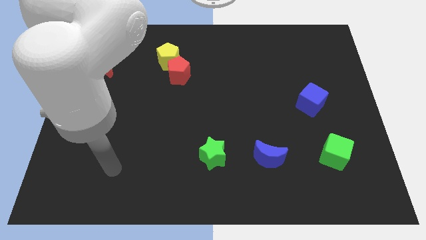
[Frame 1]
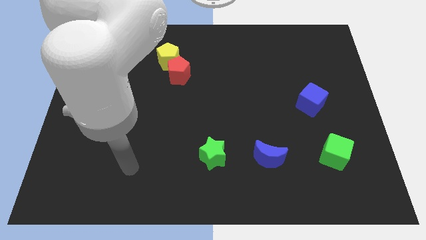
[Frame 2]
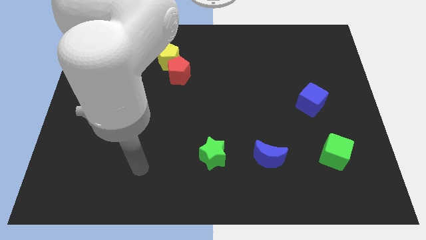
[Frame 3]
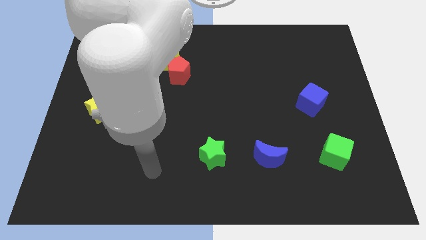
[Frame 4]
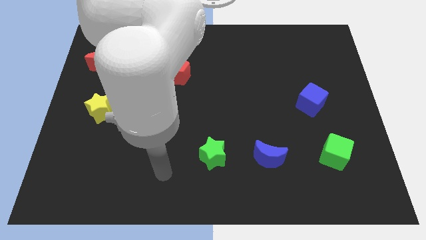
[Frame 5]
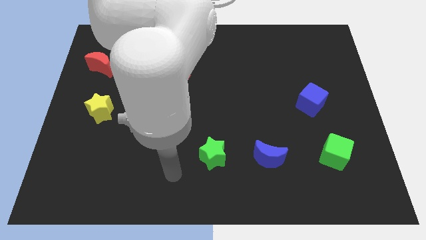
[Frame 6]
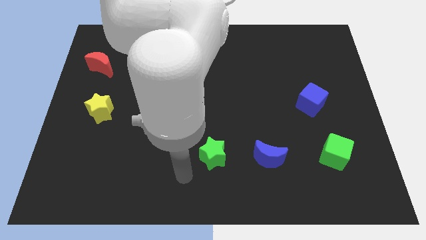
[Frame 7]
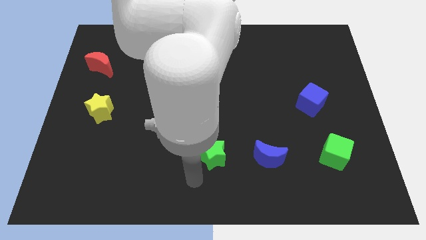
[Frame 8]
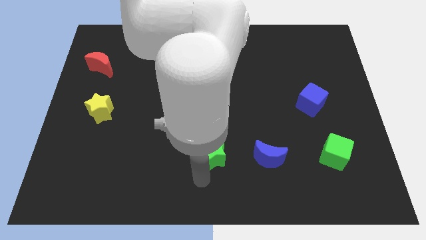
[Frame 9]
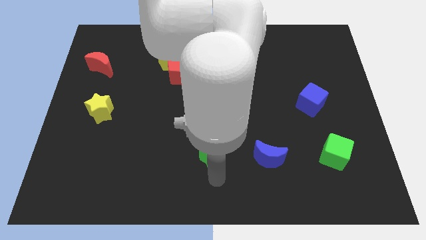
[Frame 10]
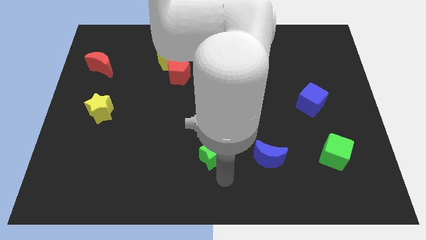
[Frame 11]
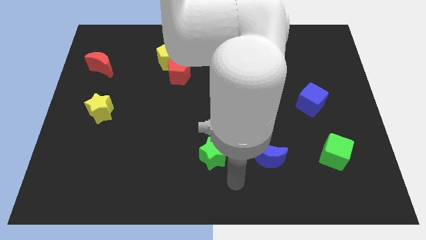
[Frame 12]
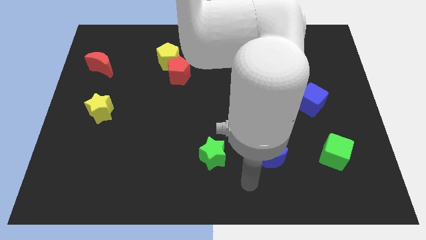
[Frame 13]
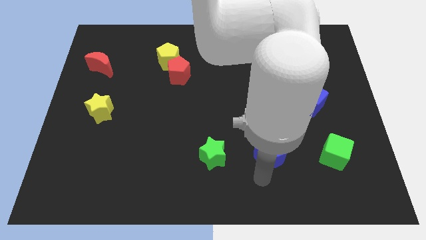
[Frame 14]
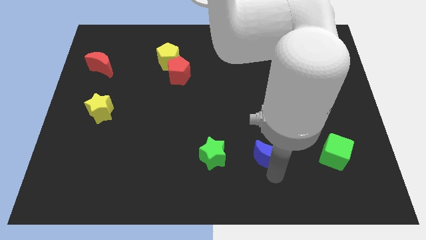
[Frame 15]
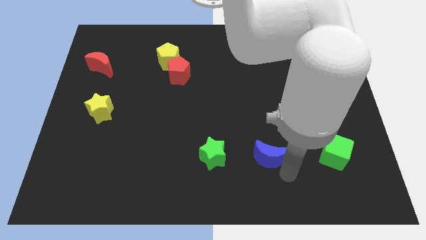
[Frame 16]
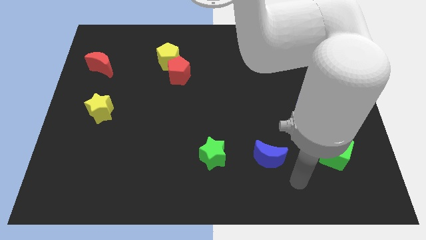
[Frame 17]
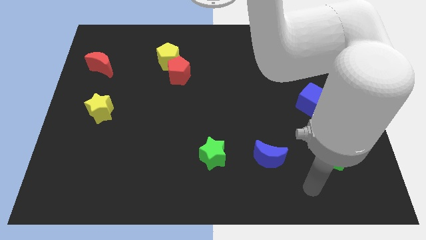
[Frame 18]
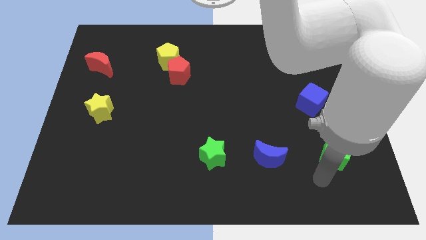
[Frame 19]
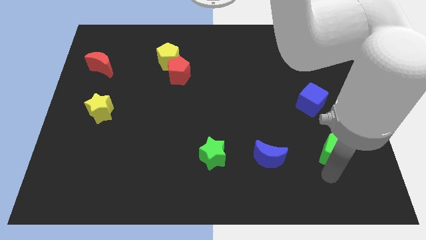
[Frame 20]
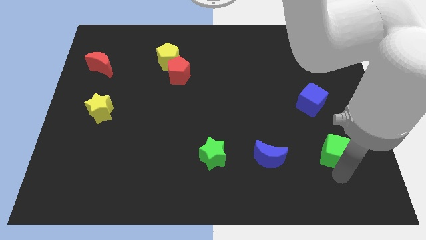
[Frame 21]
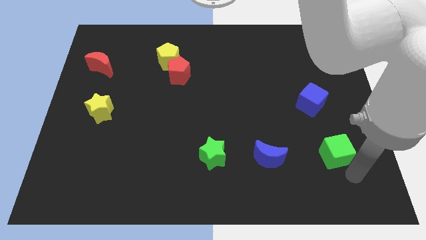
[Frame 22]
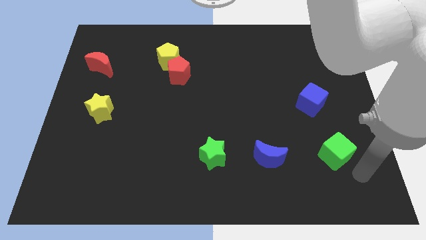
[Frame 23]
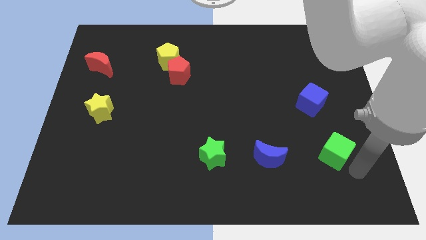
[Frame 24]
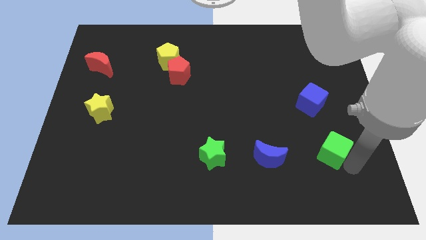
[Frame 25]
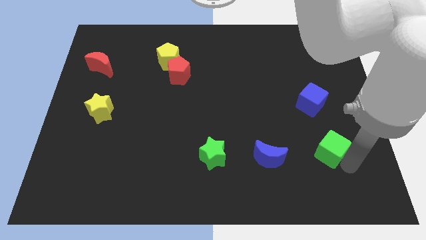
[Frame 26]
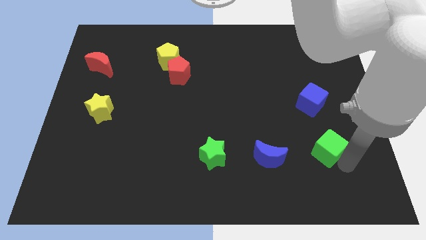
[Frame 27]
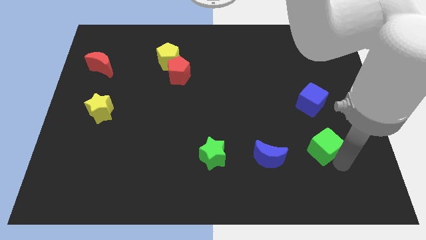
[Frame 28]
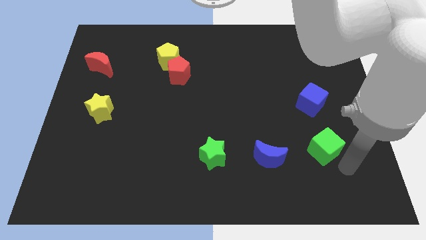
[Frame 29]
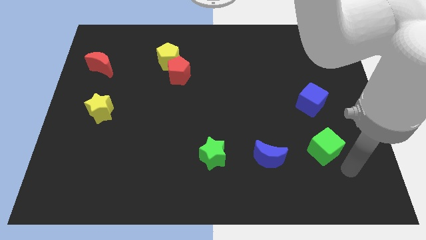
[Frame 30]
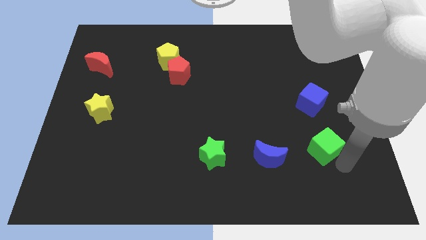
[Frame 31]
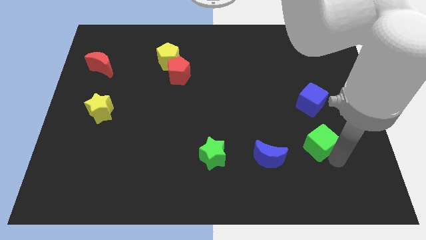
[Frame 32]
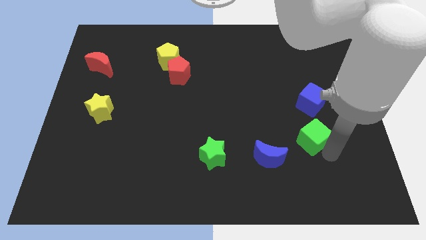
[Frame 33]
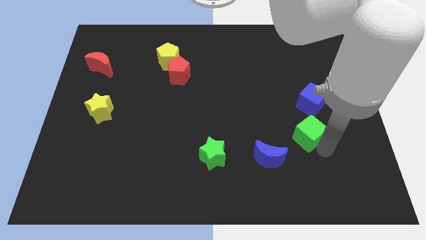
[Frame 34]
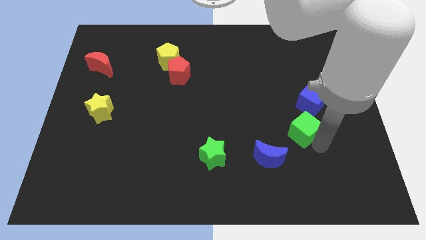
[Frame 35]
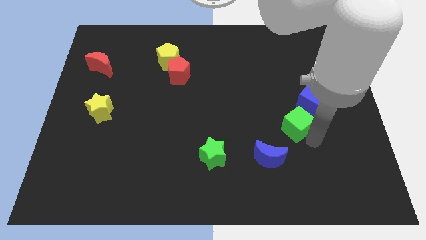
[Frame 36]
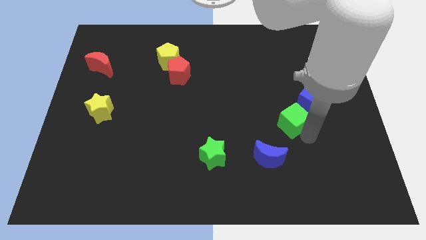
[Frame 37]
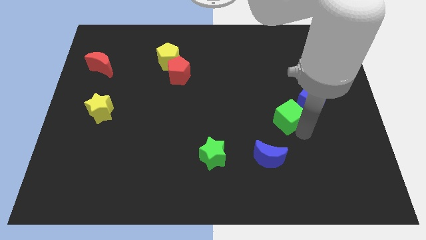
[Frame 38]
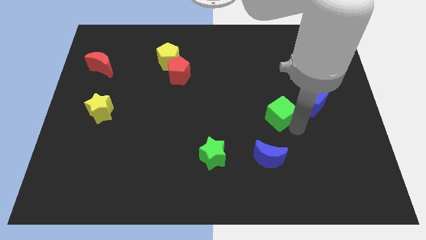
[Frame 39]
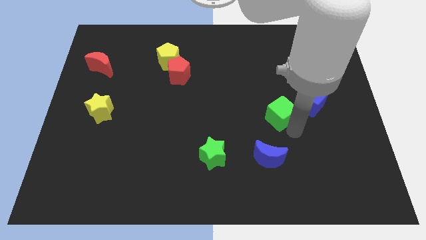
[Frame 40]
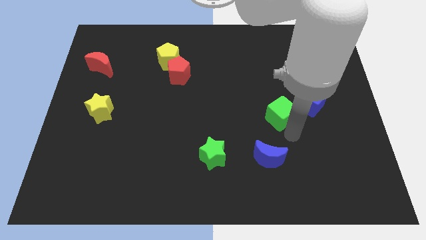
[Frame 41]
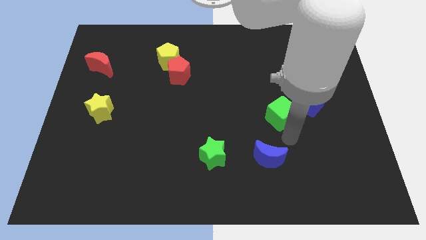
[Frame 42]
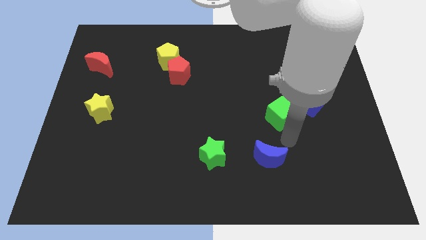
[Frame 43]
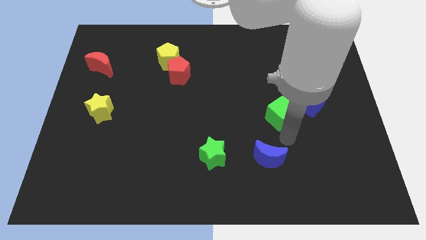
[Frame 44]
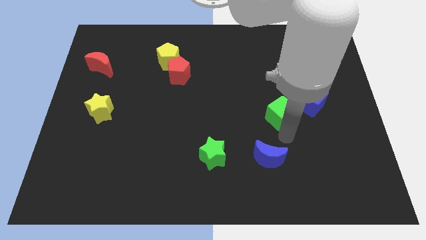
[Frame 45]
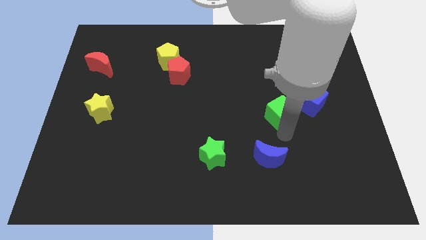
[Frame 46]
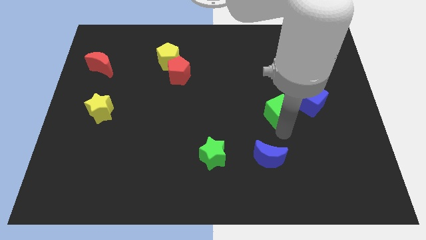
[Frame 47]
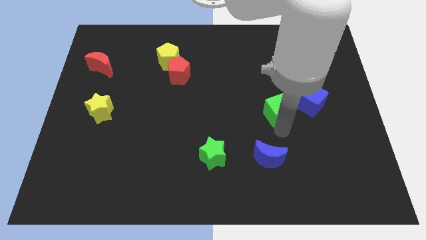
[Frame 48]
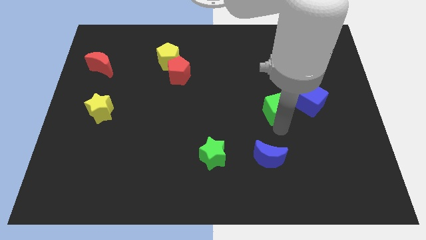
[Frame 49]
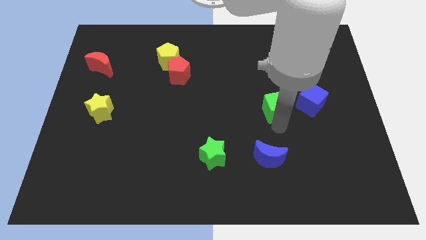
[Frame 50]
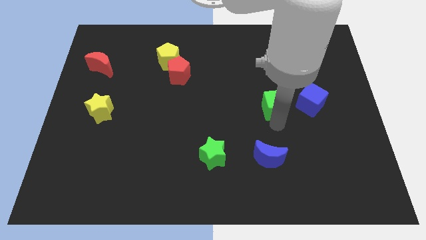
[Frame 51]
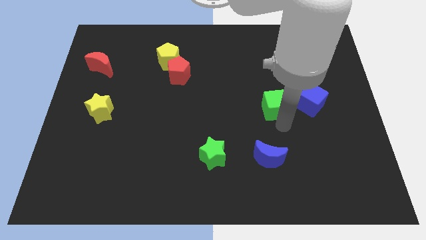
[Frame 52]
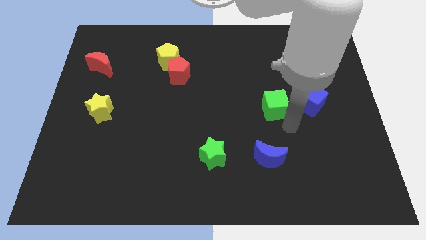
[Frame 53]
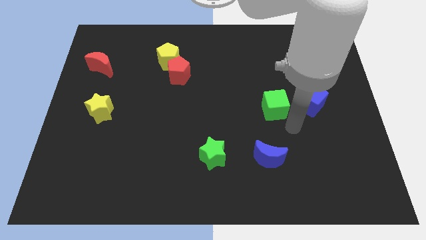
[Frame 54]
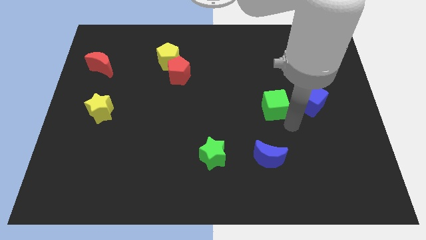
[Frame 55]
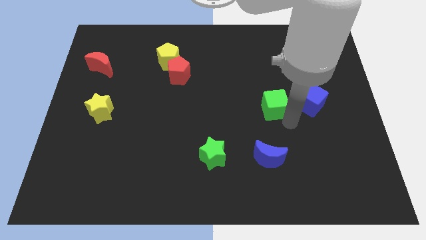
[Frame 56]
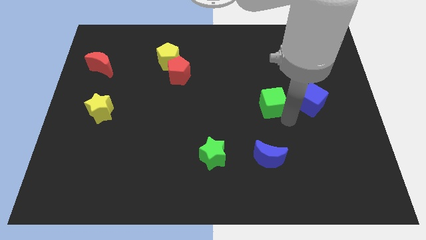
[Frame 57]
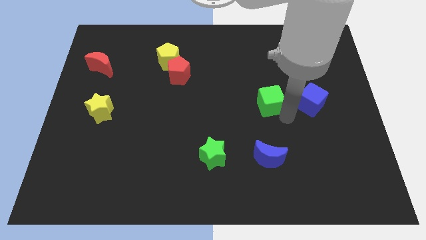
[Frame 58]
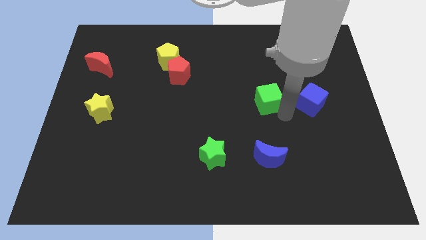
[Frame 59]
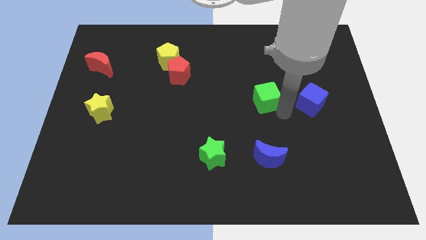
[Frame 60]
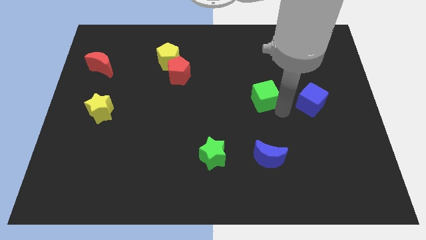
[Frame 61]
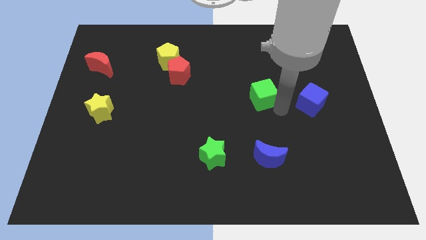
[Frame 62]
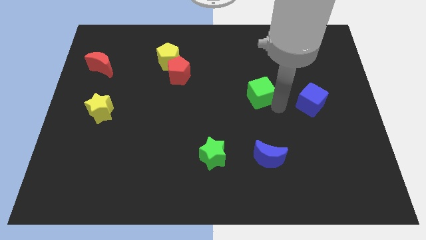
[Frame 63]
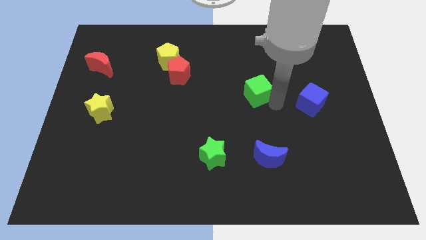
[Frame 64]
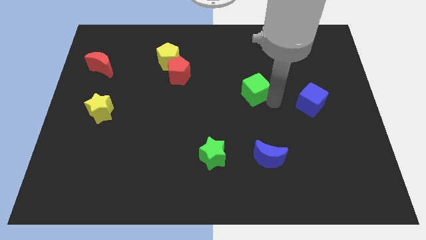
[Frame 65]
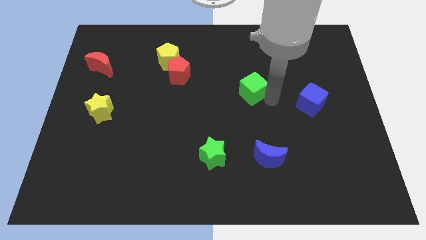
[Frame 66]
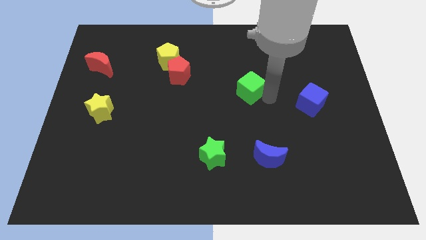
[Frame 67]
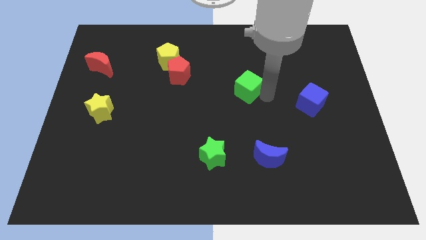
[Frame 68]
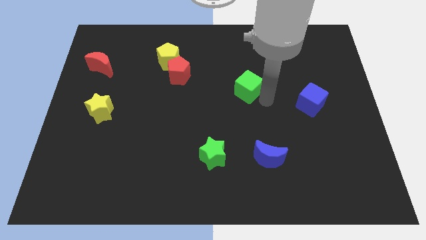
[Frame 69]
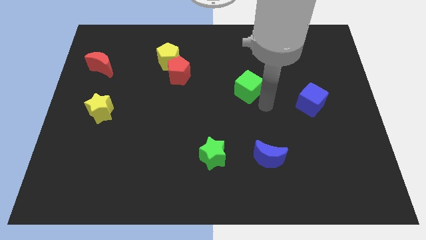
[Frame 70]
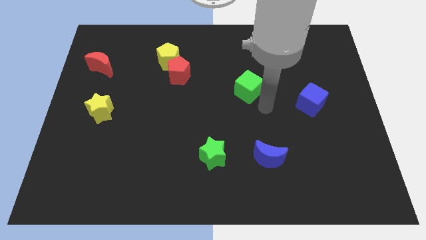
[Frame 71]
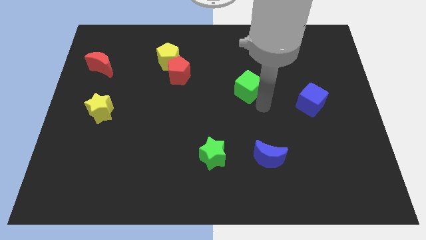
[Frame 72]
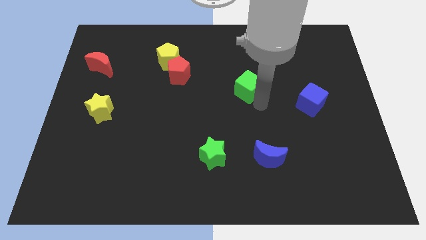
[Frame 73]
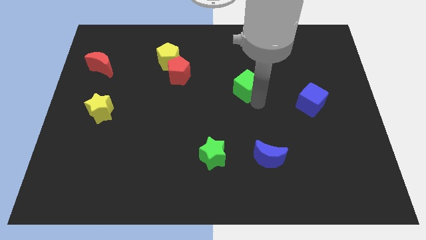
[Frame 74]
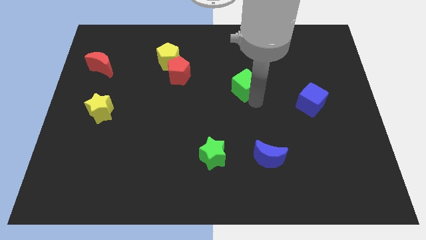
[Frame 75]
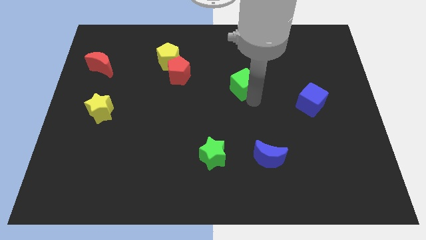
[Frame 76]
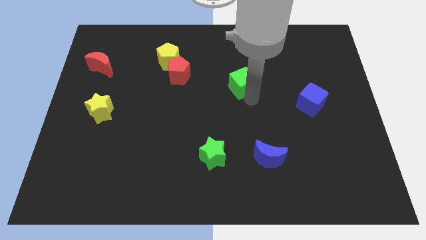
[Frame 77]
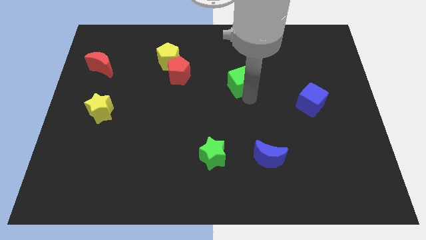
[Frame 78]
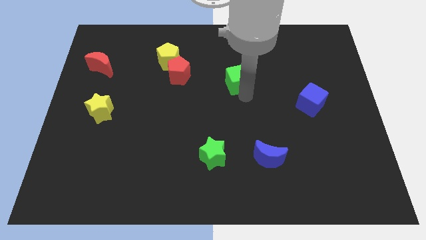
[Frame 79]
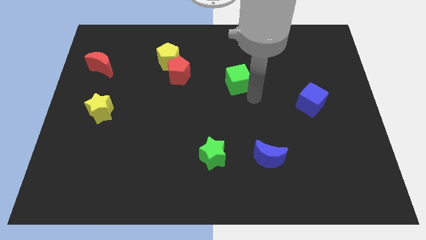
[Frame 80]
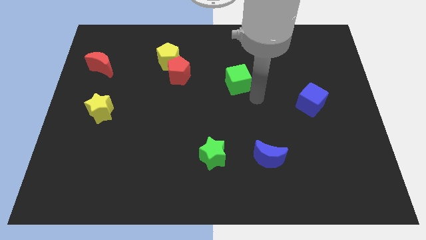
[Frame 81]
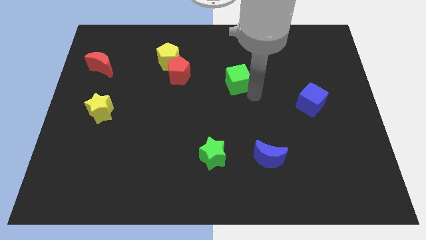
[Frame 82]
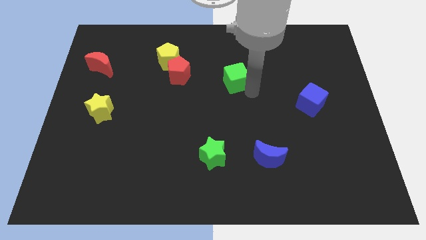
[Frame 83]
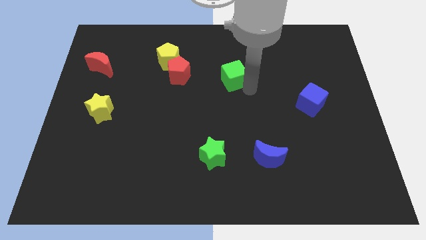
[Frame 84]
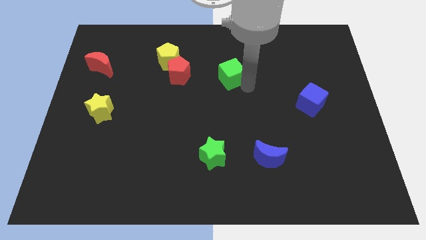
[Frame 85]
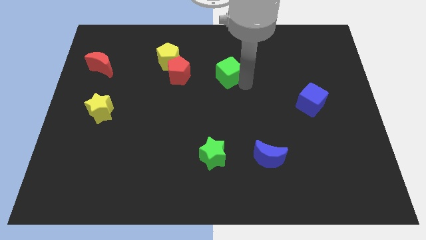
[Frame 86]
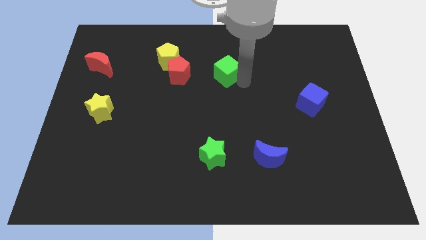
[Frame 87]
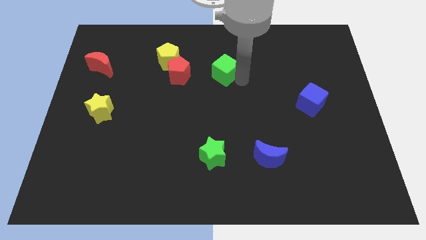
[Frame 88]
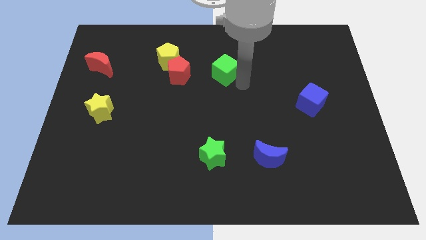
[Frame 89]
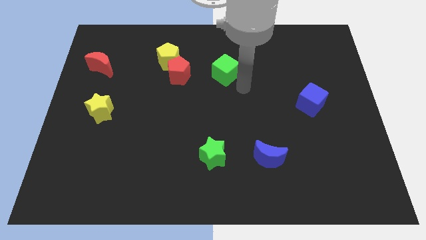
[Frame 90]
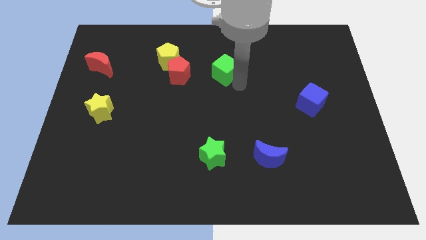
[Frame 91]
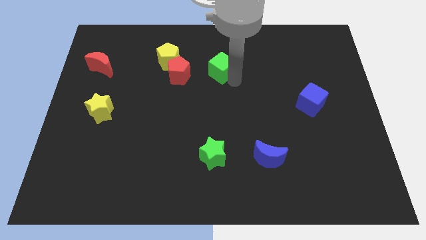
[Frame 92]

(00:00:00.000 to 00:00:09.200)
move the green cube just right of the yellow pentagon
